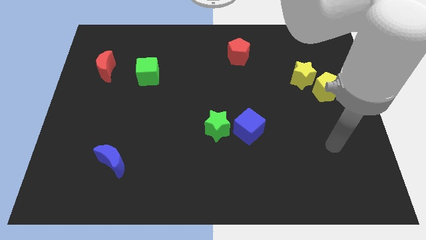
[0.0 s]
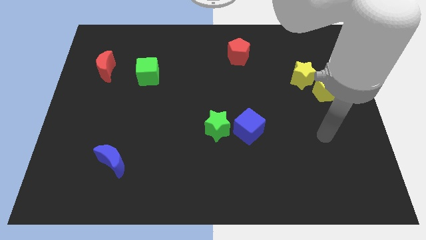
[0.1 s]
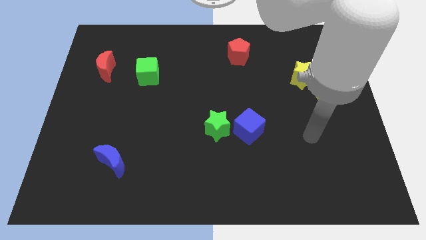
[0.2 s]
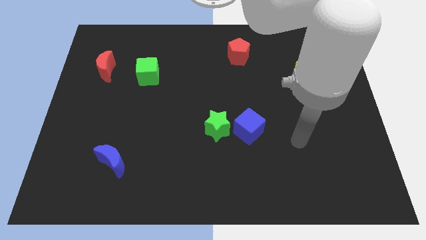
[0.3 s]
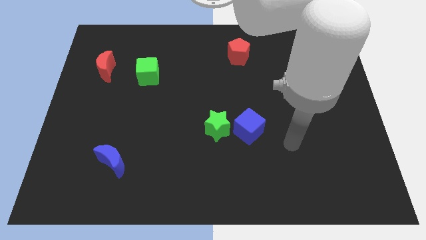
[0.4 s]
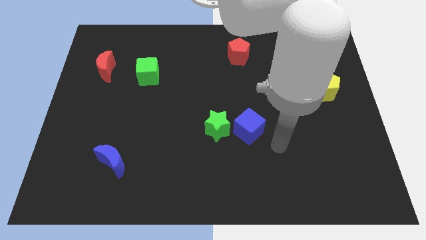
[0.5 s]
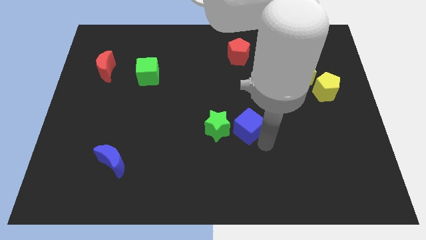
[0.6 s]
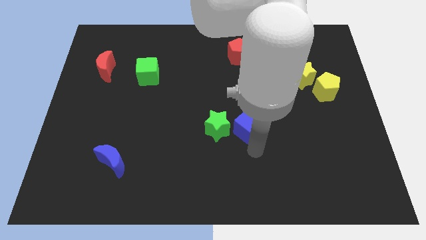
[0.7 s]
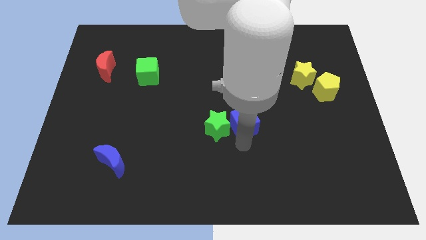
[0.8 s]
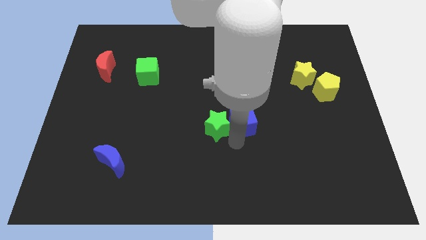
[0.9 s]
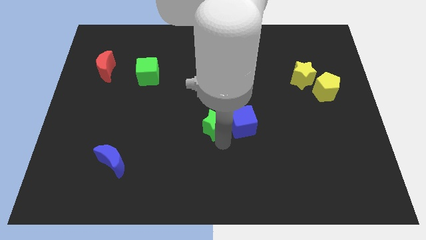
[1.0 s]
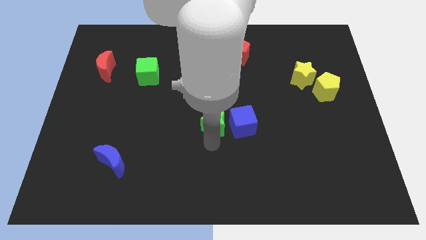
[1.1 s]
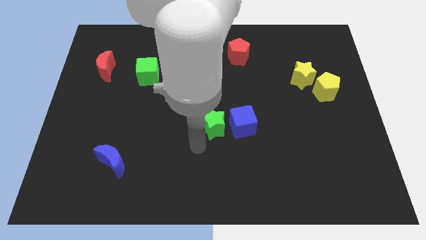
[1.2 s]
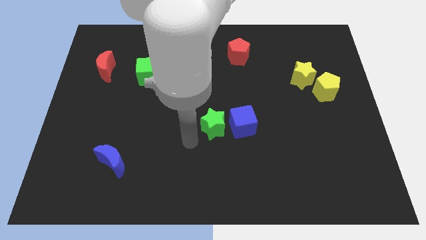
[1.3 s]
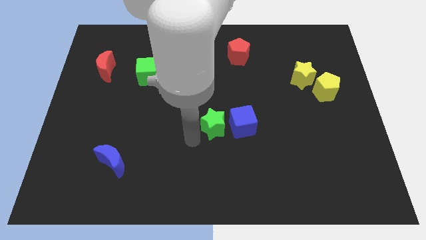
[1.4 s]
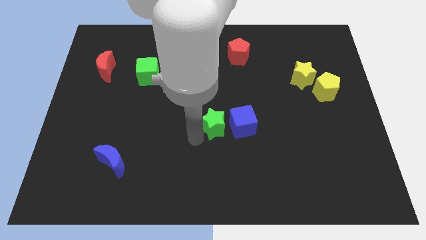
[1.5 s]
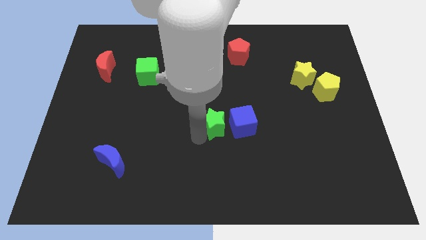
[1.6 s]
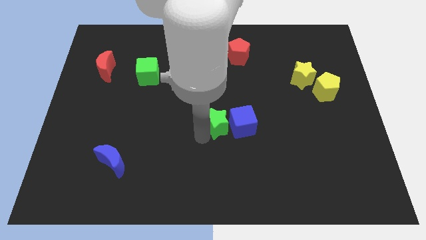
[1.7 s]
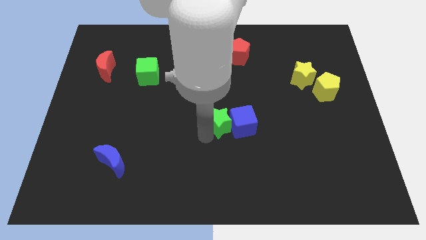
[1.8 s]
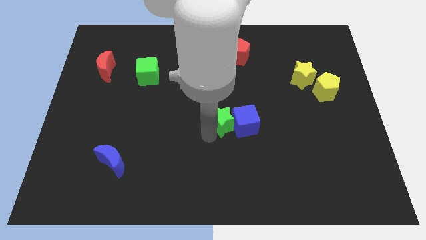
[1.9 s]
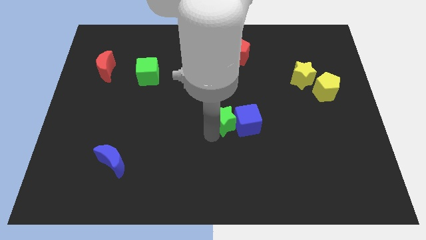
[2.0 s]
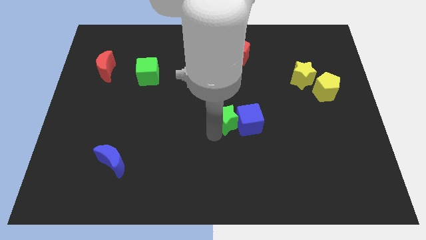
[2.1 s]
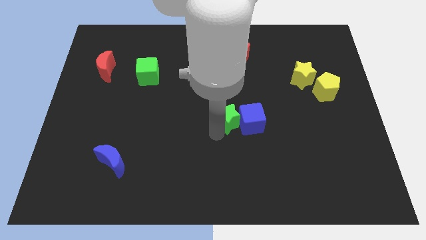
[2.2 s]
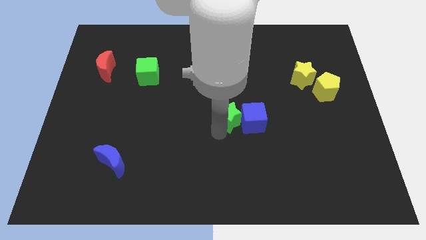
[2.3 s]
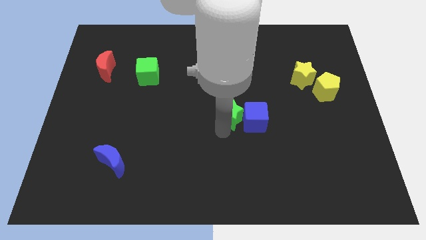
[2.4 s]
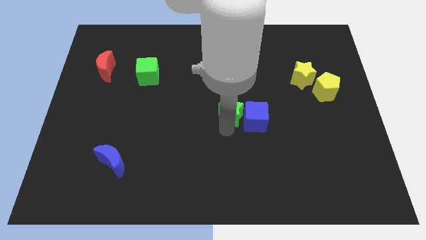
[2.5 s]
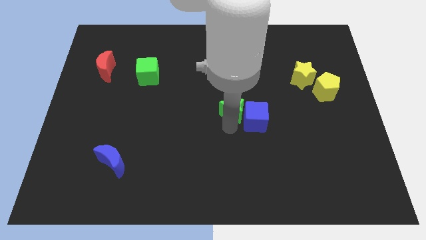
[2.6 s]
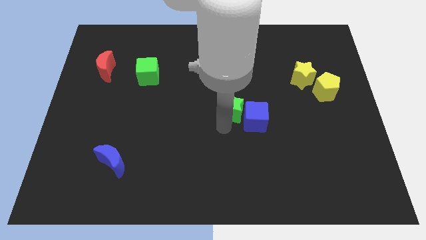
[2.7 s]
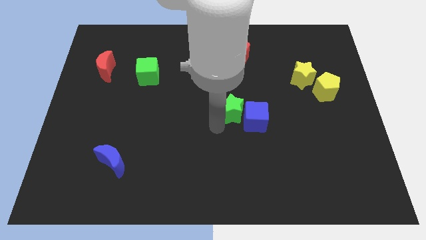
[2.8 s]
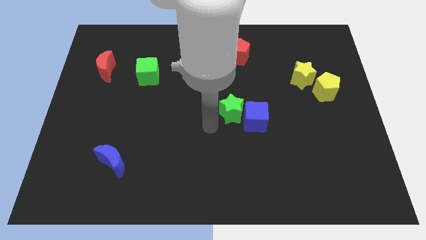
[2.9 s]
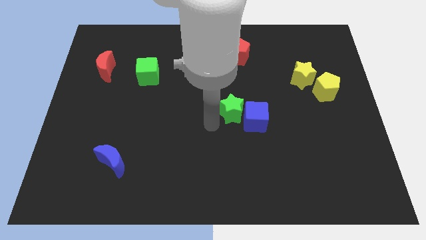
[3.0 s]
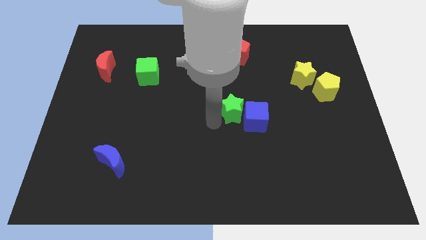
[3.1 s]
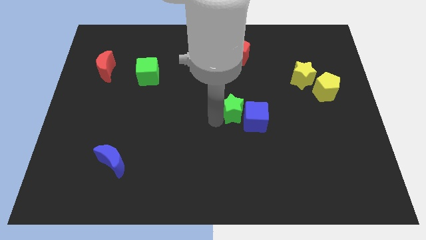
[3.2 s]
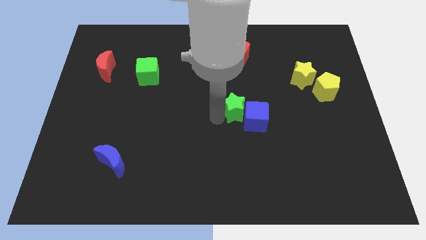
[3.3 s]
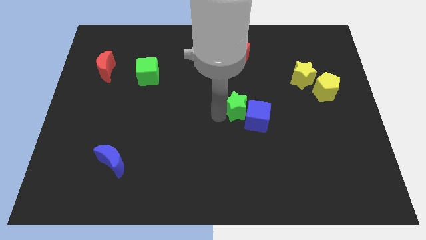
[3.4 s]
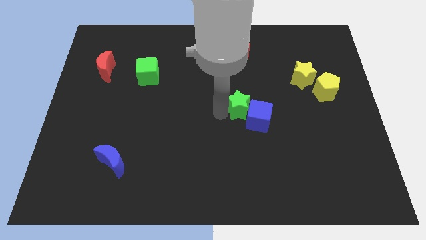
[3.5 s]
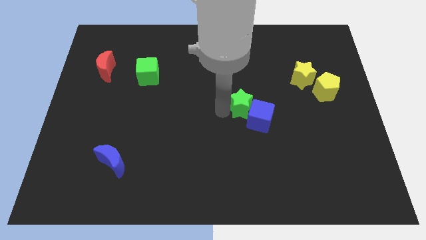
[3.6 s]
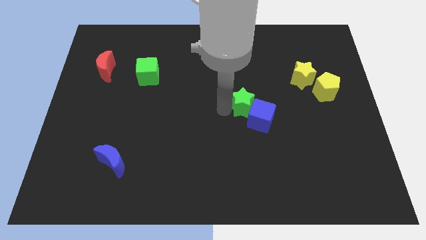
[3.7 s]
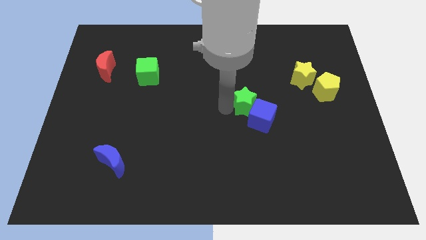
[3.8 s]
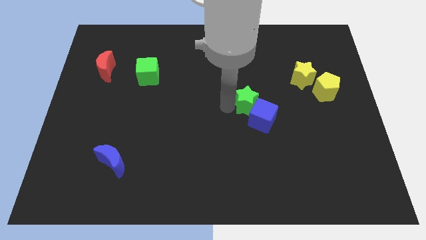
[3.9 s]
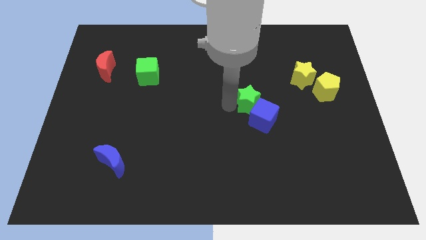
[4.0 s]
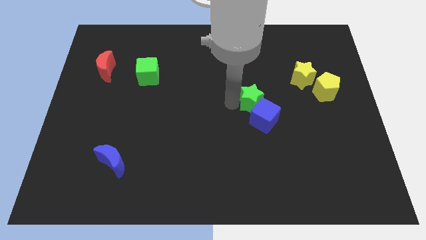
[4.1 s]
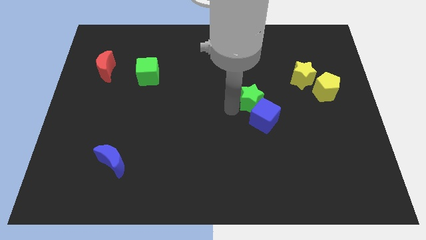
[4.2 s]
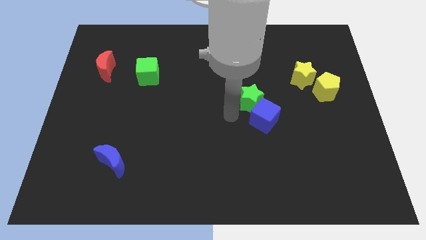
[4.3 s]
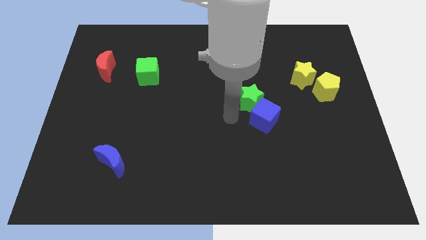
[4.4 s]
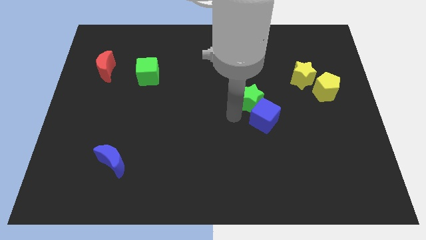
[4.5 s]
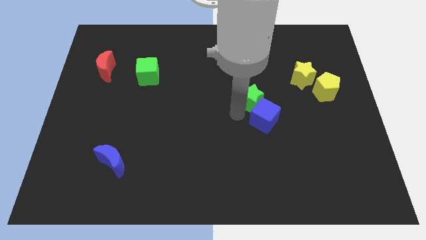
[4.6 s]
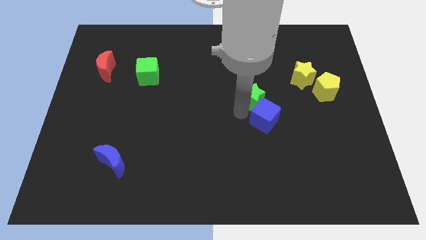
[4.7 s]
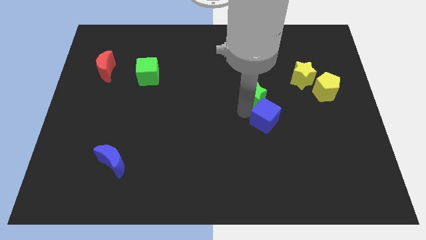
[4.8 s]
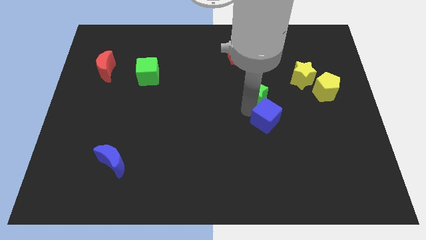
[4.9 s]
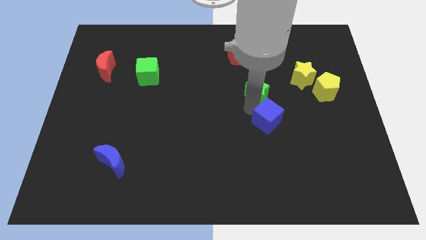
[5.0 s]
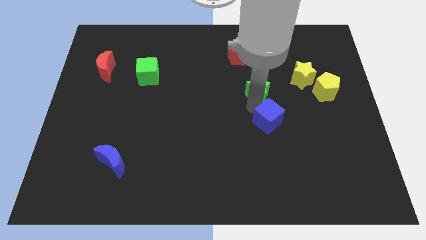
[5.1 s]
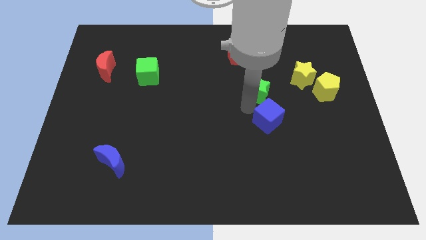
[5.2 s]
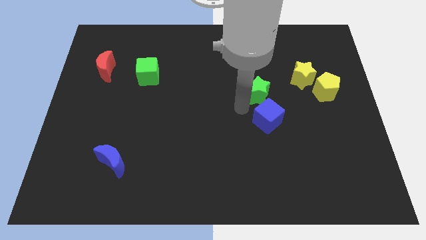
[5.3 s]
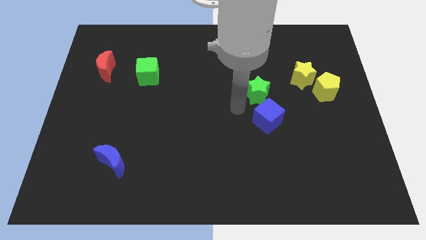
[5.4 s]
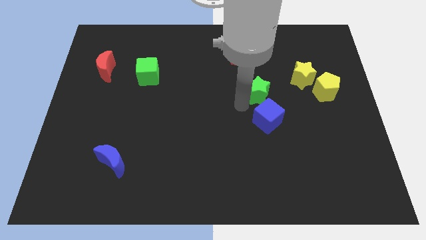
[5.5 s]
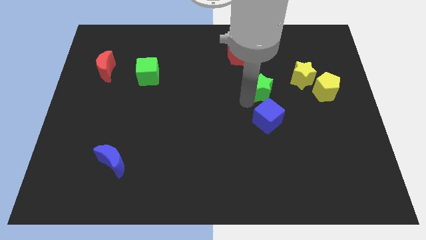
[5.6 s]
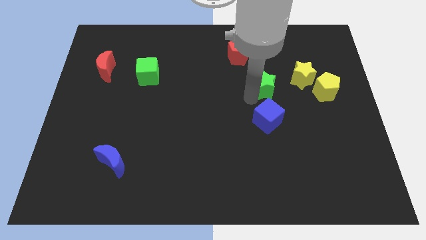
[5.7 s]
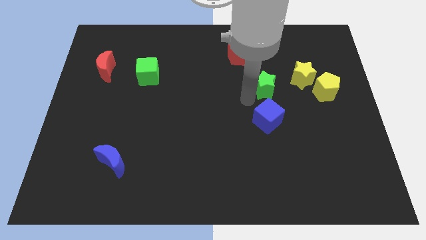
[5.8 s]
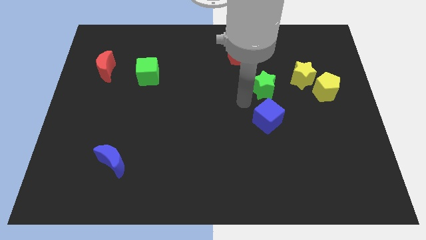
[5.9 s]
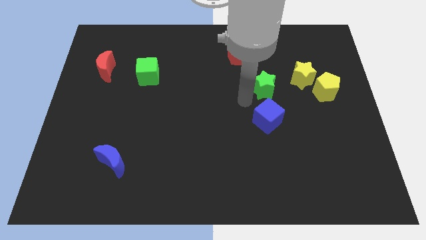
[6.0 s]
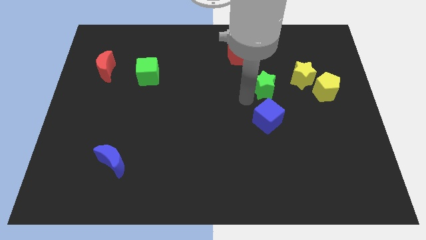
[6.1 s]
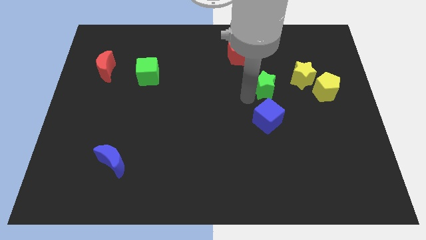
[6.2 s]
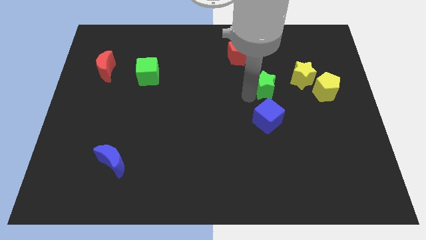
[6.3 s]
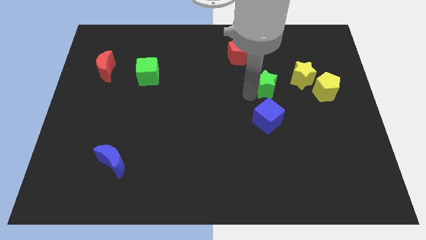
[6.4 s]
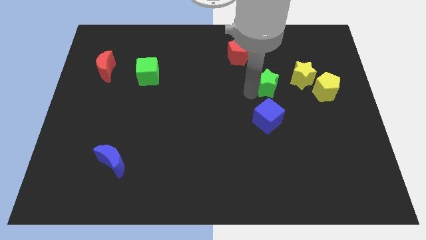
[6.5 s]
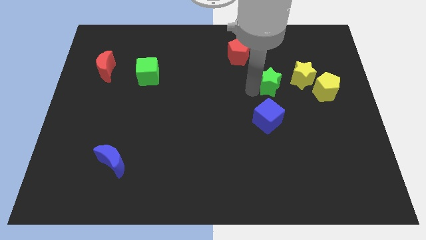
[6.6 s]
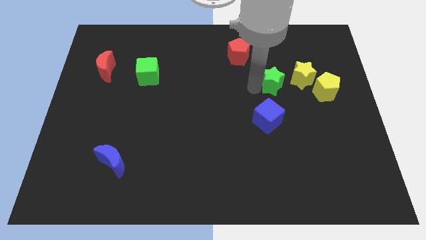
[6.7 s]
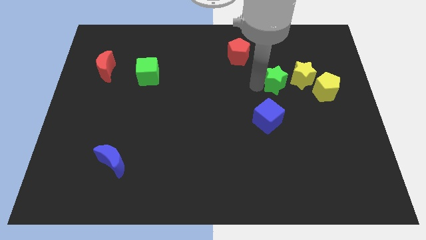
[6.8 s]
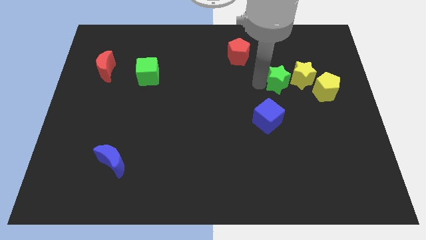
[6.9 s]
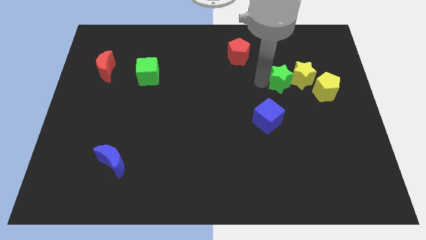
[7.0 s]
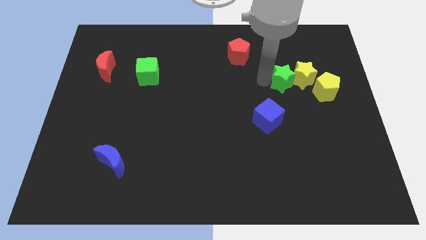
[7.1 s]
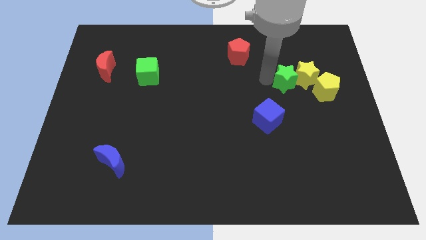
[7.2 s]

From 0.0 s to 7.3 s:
put the green star to the top left of the yellow pentagon
